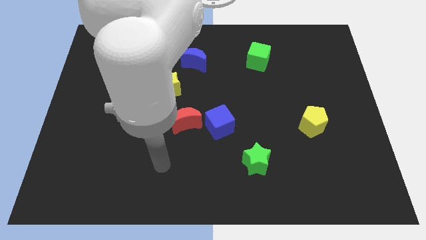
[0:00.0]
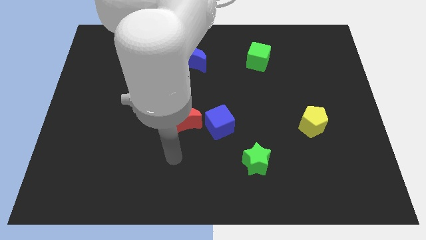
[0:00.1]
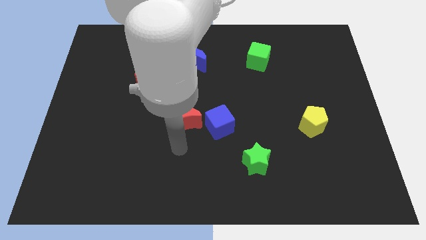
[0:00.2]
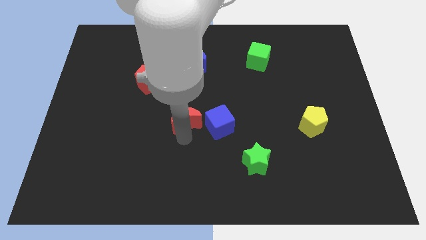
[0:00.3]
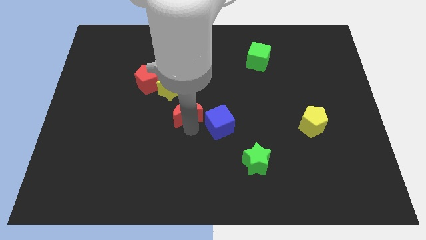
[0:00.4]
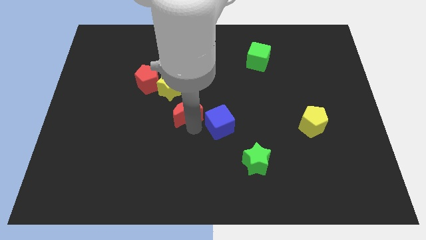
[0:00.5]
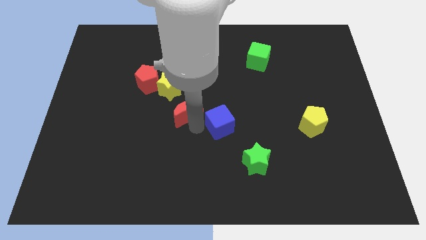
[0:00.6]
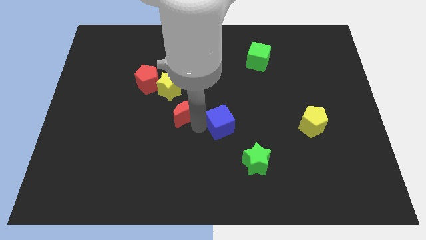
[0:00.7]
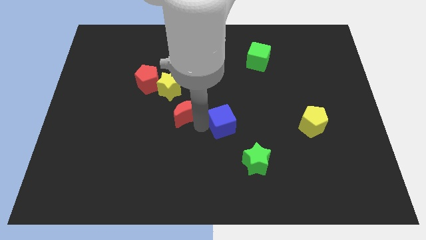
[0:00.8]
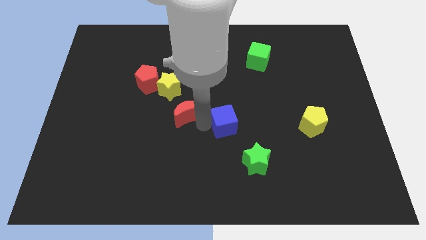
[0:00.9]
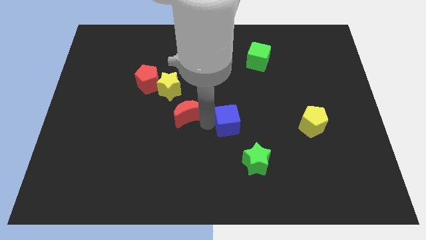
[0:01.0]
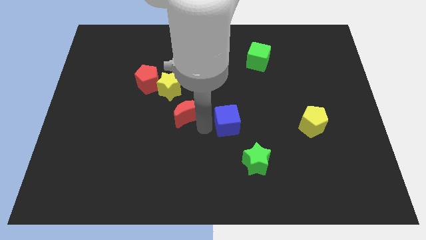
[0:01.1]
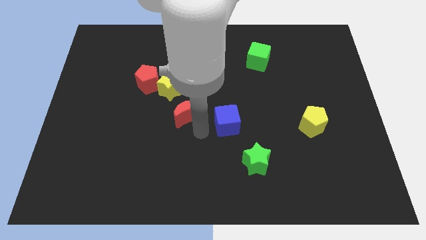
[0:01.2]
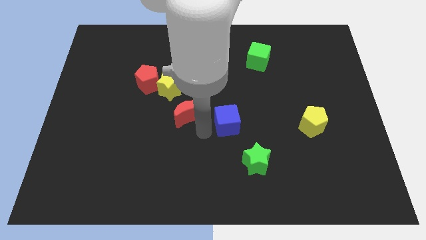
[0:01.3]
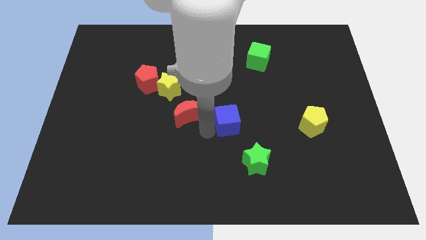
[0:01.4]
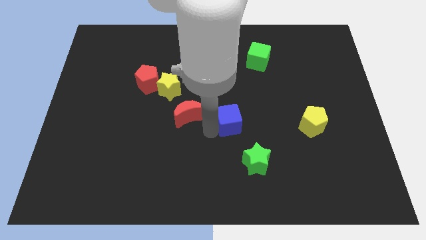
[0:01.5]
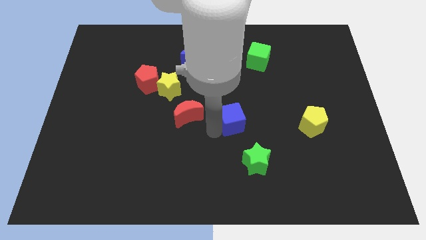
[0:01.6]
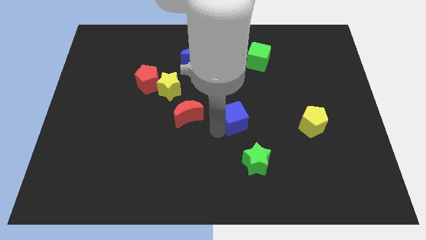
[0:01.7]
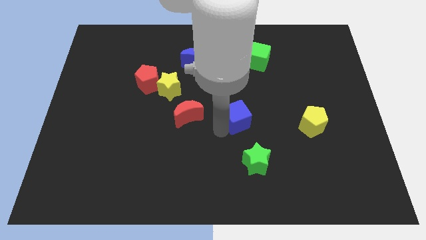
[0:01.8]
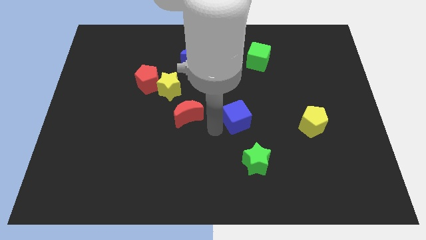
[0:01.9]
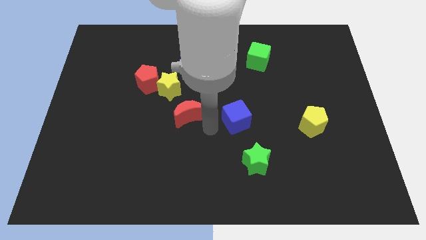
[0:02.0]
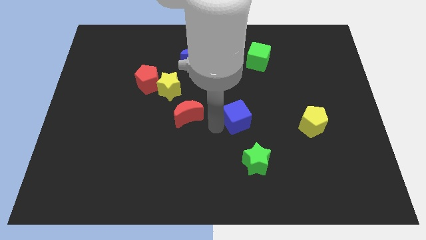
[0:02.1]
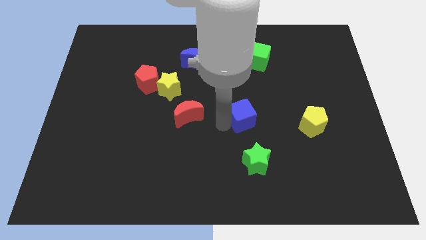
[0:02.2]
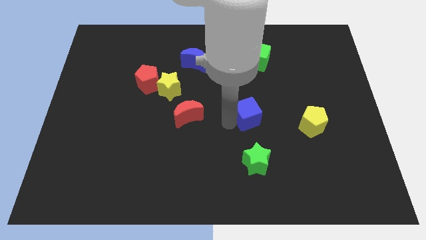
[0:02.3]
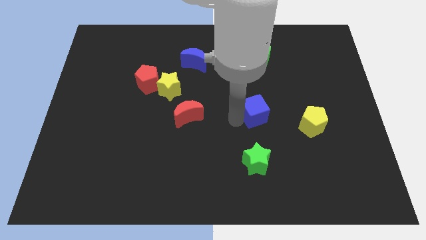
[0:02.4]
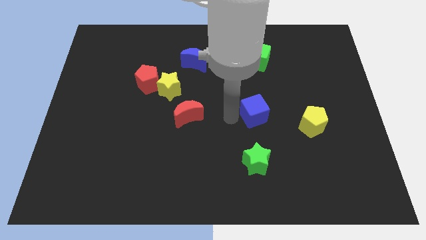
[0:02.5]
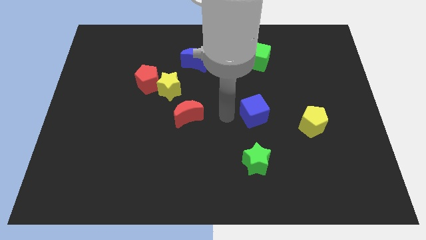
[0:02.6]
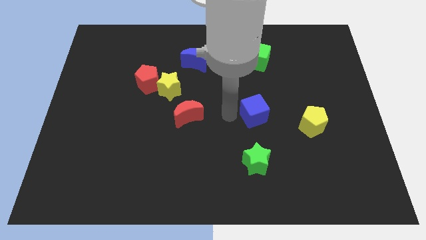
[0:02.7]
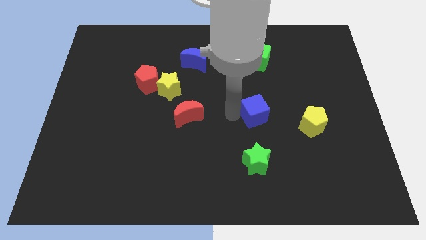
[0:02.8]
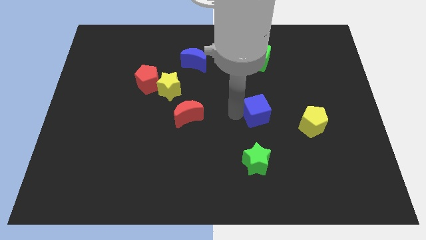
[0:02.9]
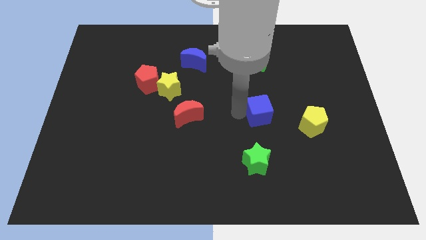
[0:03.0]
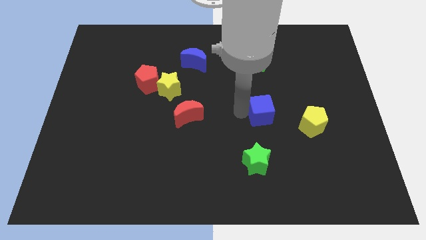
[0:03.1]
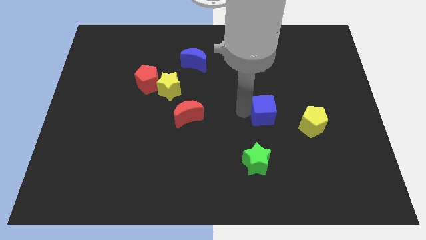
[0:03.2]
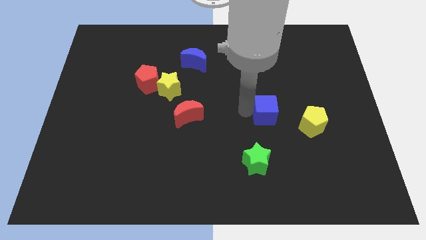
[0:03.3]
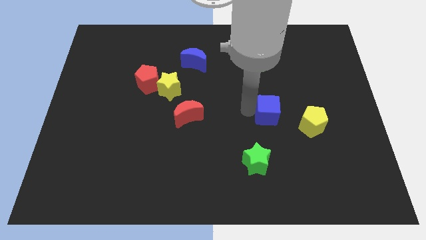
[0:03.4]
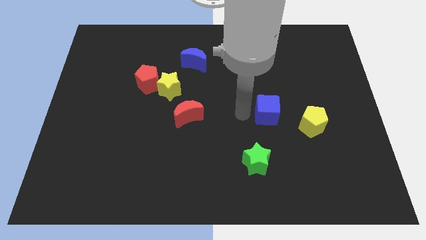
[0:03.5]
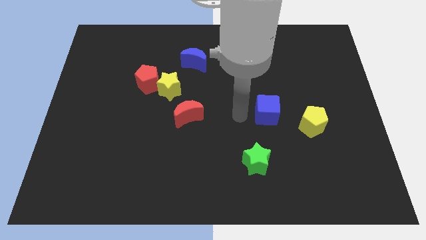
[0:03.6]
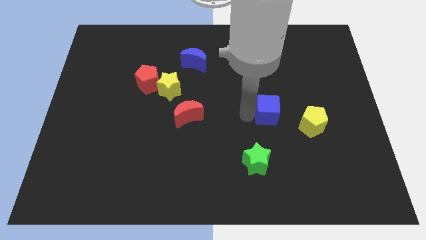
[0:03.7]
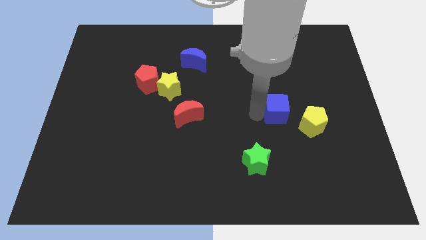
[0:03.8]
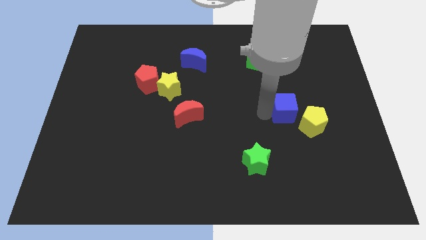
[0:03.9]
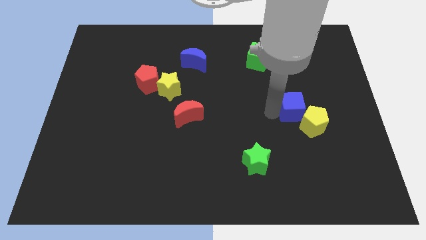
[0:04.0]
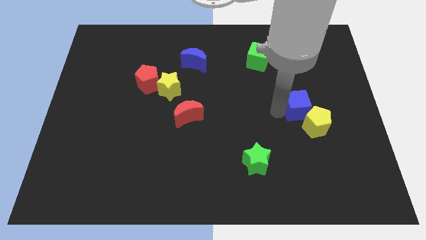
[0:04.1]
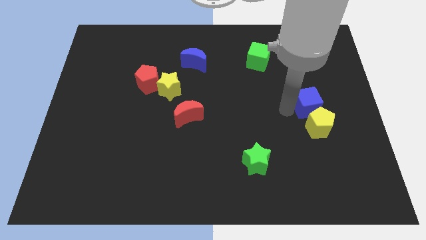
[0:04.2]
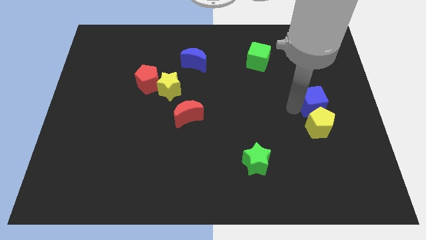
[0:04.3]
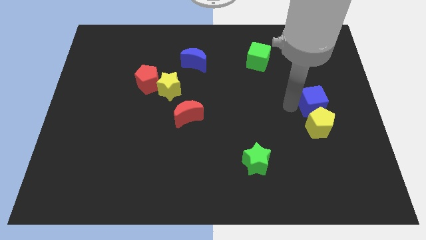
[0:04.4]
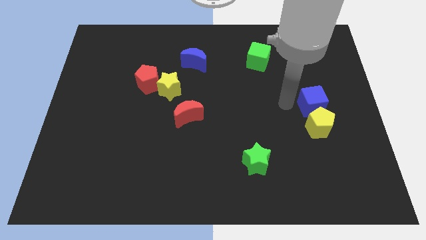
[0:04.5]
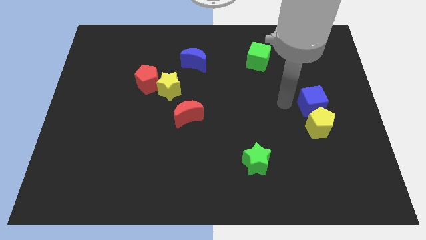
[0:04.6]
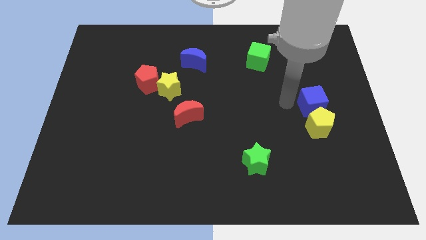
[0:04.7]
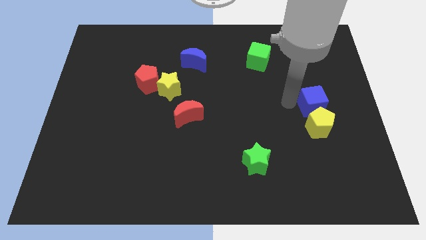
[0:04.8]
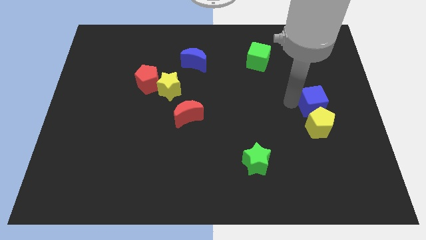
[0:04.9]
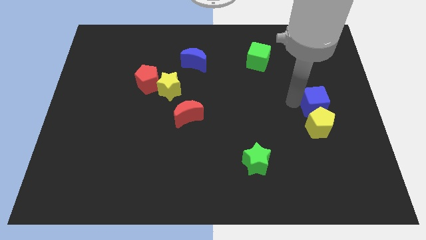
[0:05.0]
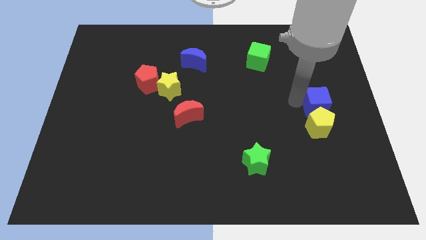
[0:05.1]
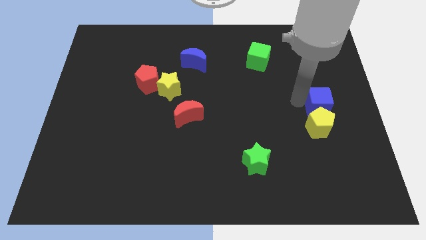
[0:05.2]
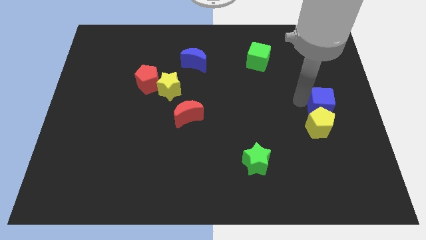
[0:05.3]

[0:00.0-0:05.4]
put the blue cube to the right side
